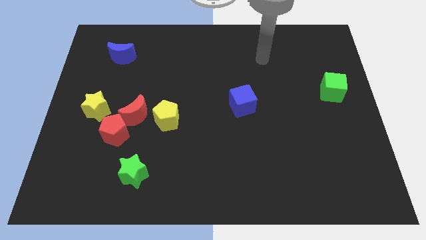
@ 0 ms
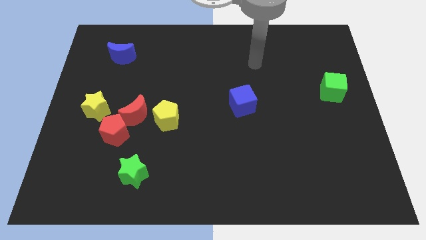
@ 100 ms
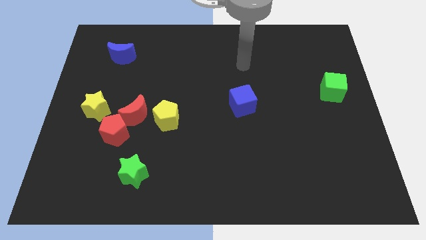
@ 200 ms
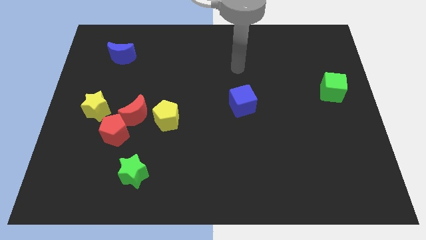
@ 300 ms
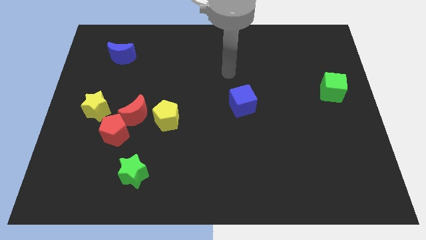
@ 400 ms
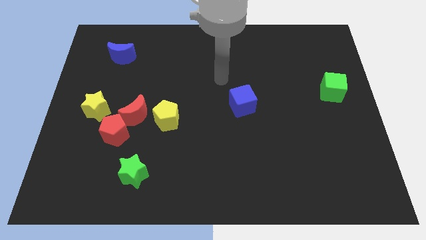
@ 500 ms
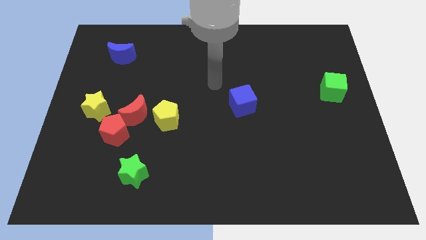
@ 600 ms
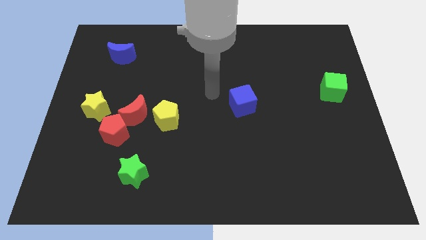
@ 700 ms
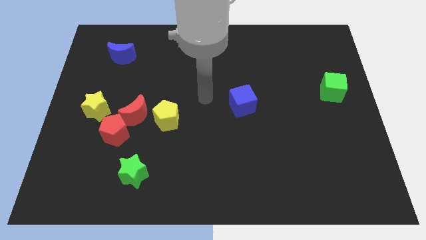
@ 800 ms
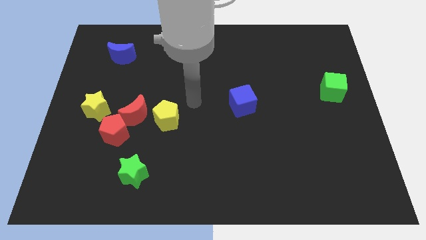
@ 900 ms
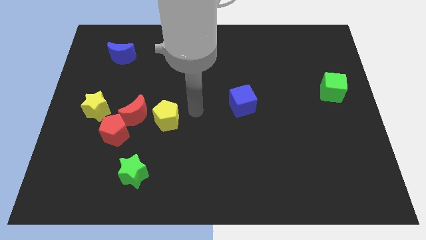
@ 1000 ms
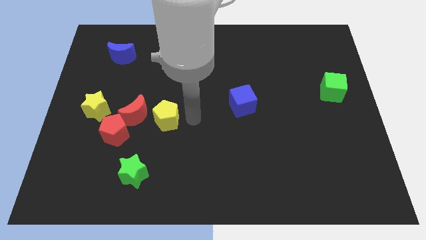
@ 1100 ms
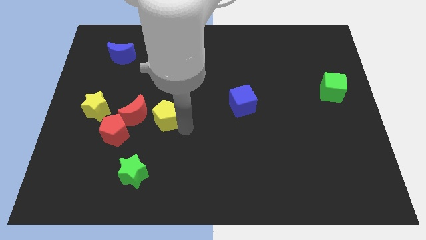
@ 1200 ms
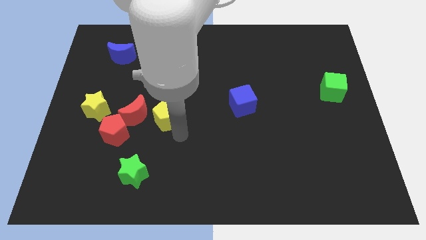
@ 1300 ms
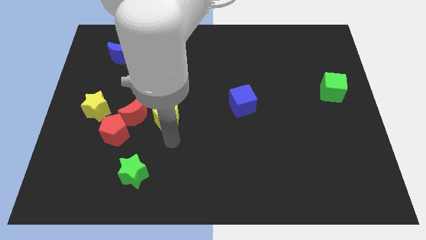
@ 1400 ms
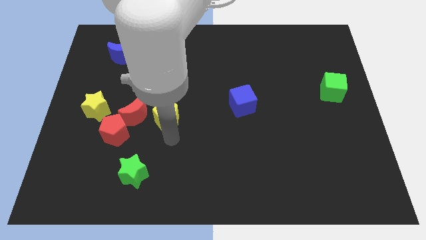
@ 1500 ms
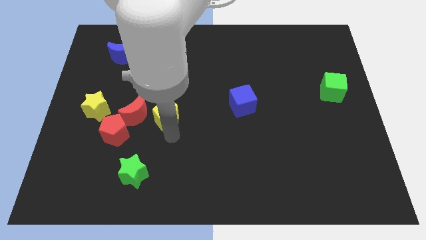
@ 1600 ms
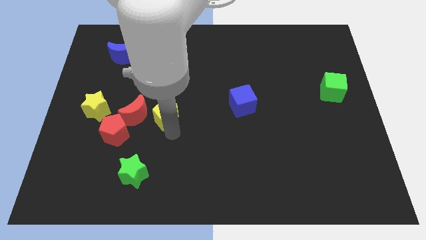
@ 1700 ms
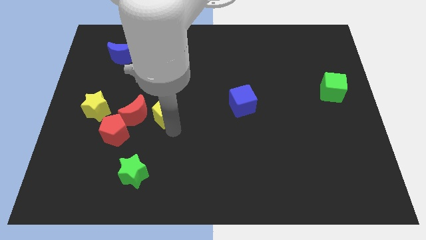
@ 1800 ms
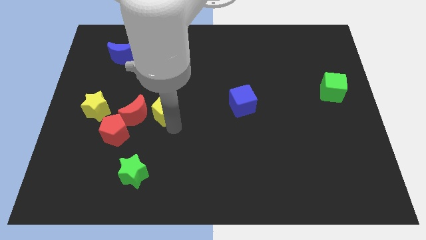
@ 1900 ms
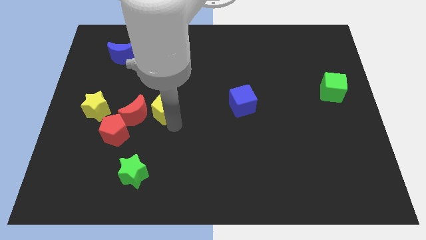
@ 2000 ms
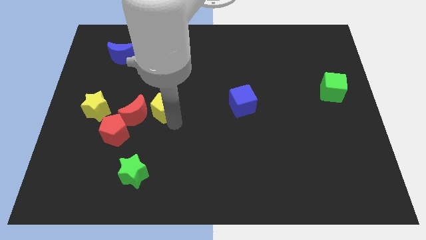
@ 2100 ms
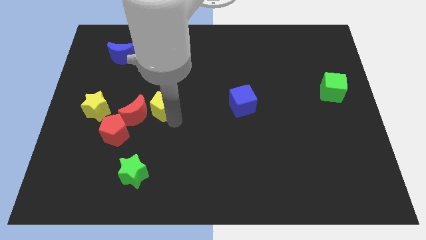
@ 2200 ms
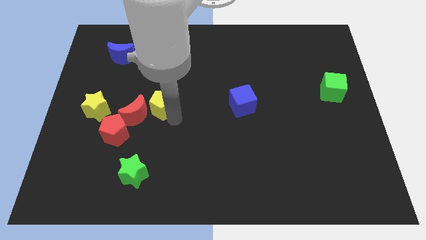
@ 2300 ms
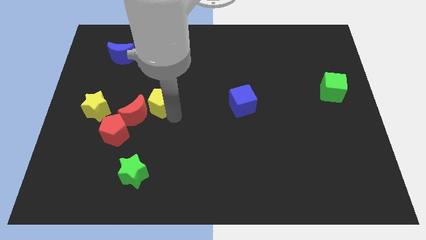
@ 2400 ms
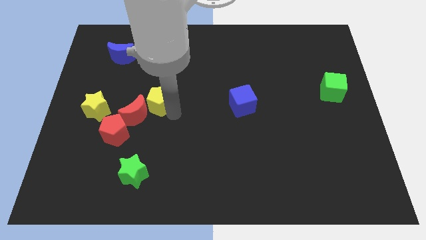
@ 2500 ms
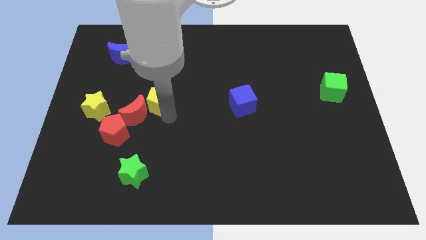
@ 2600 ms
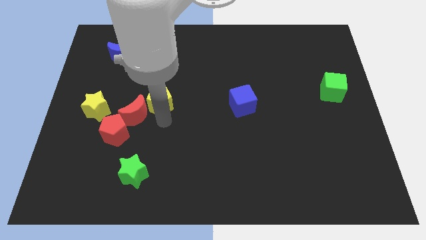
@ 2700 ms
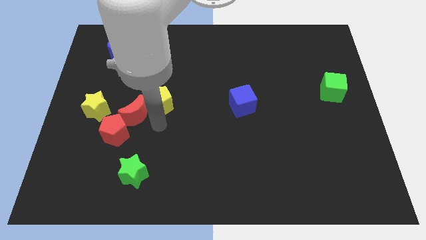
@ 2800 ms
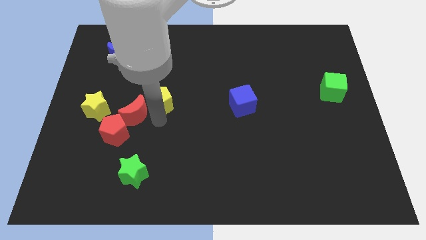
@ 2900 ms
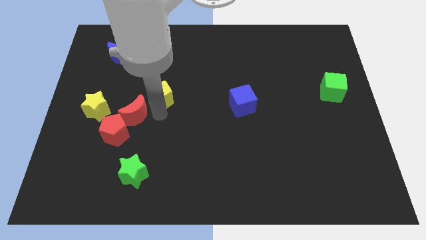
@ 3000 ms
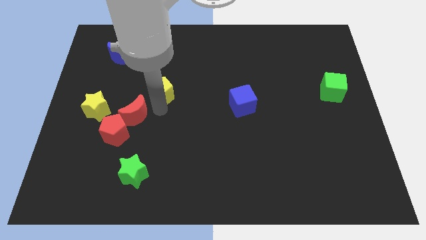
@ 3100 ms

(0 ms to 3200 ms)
push the yellow pentagon a little bit upwards

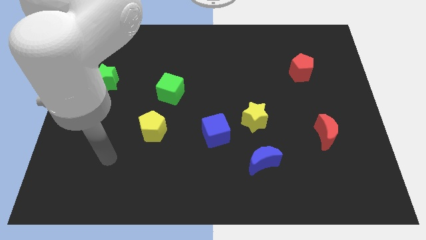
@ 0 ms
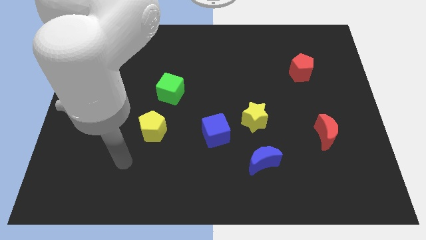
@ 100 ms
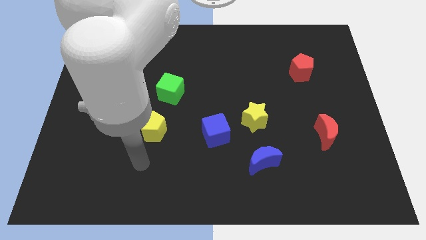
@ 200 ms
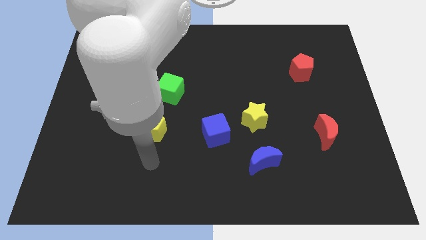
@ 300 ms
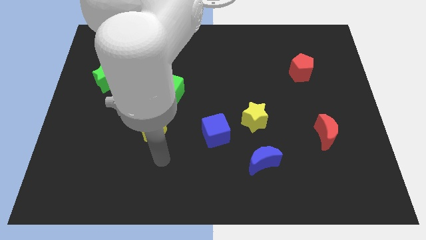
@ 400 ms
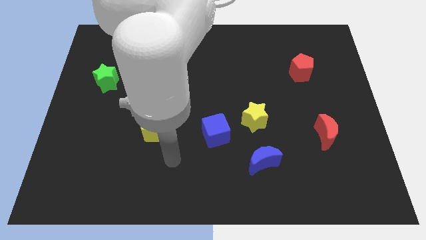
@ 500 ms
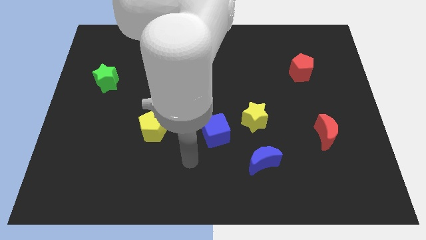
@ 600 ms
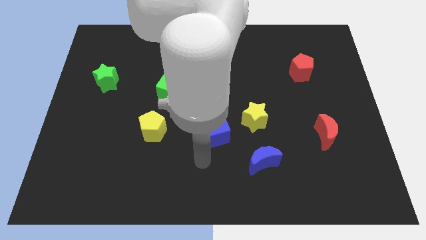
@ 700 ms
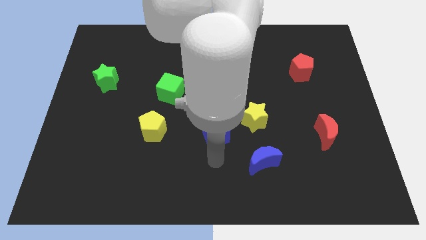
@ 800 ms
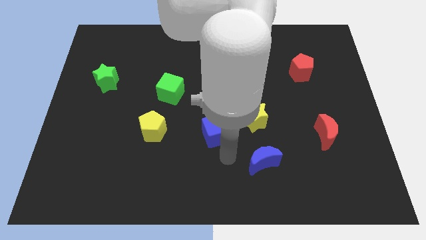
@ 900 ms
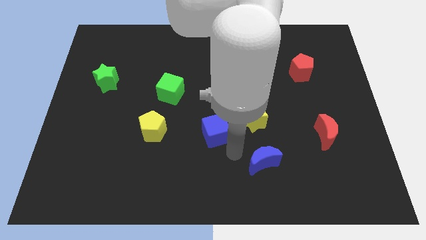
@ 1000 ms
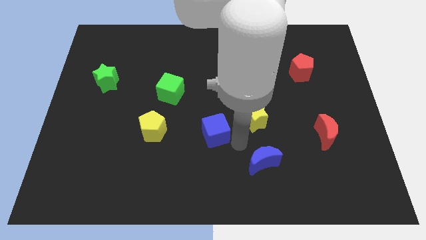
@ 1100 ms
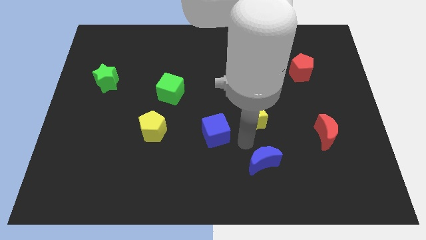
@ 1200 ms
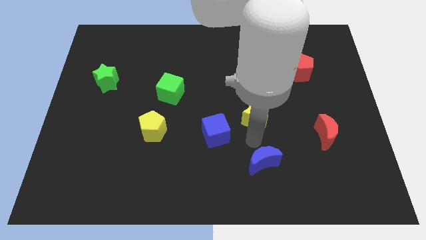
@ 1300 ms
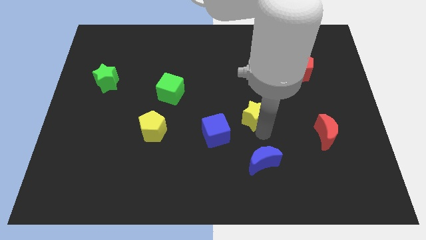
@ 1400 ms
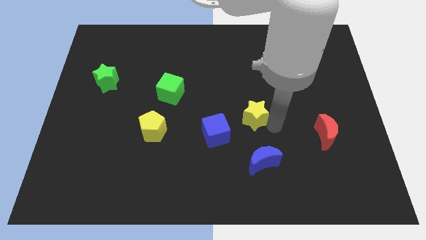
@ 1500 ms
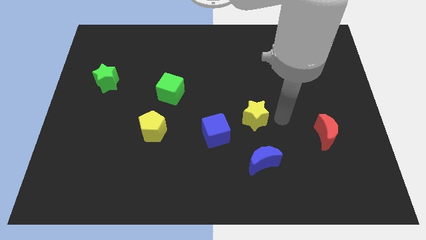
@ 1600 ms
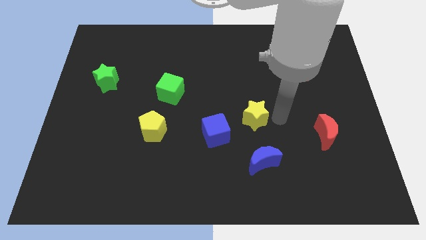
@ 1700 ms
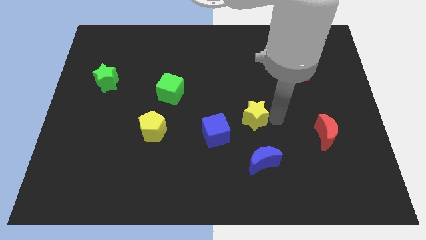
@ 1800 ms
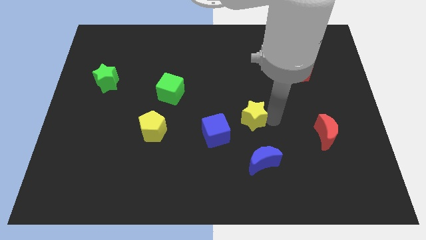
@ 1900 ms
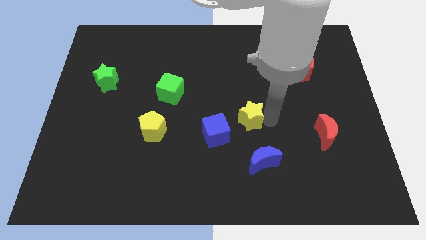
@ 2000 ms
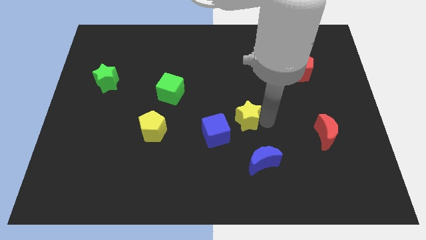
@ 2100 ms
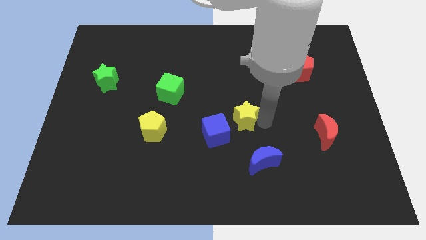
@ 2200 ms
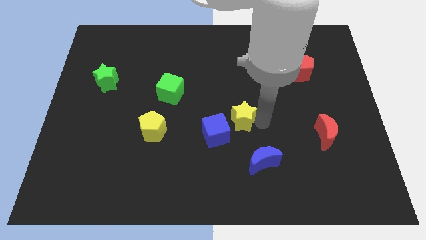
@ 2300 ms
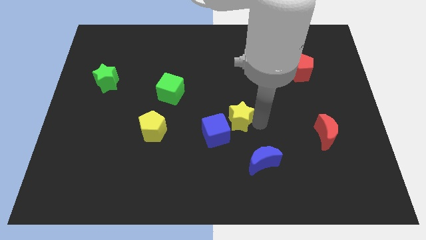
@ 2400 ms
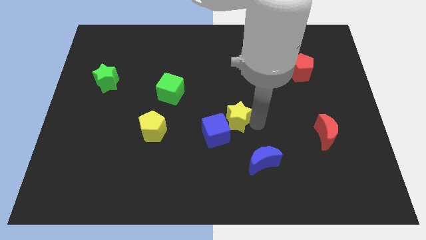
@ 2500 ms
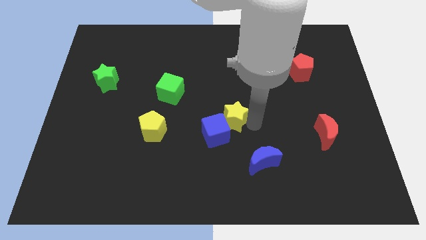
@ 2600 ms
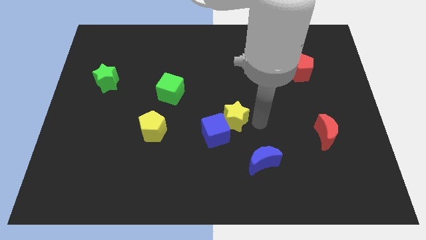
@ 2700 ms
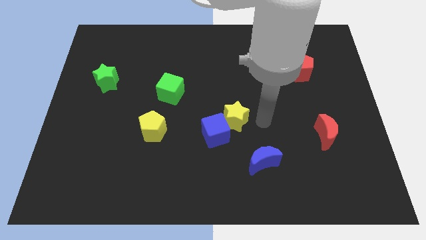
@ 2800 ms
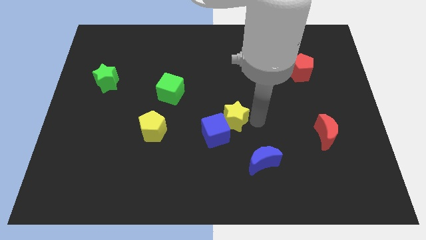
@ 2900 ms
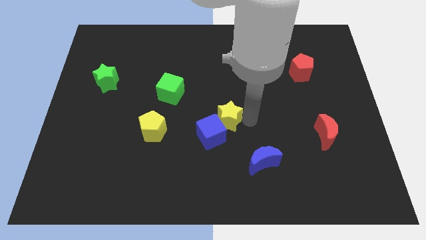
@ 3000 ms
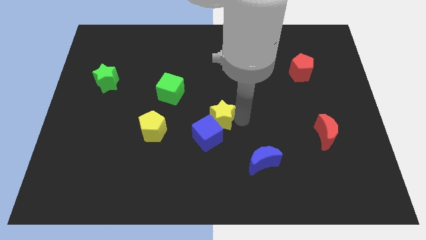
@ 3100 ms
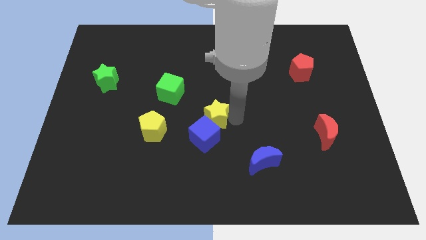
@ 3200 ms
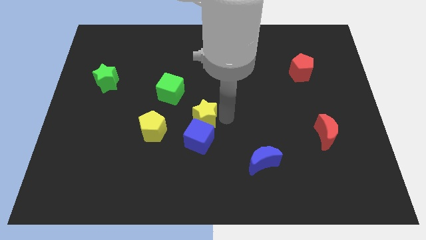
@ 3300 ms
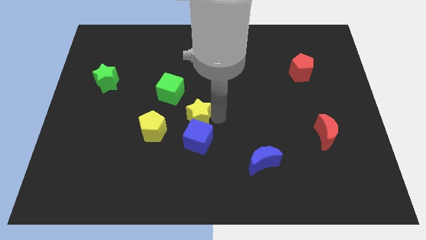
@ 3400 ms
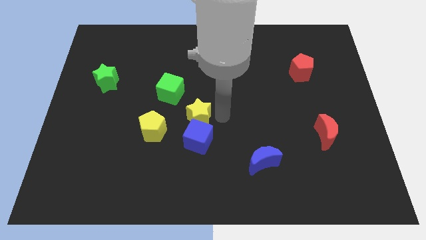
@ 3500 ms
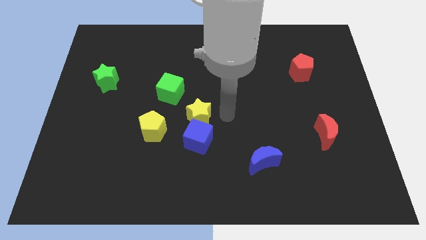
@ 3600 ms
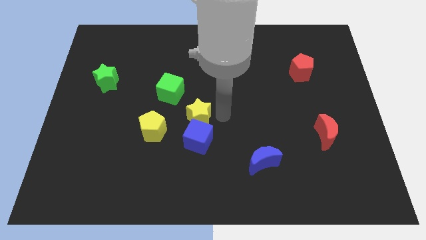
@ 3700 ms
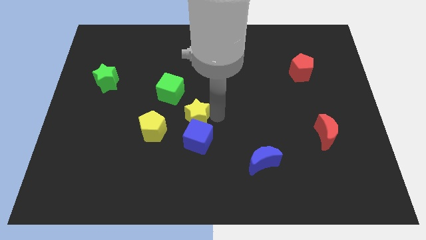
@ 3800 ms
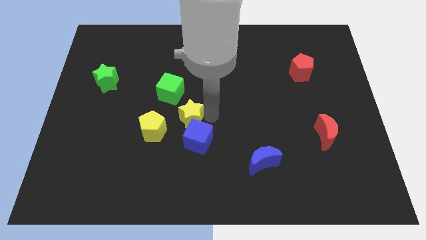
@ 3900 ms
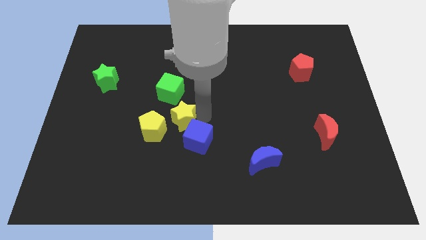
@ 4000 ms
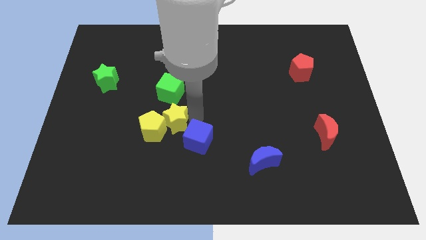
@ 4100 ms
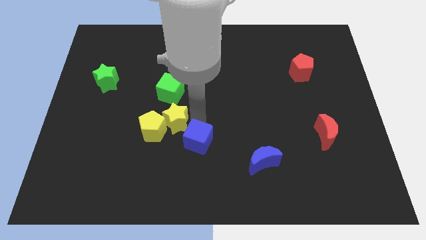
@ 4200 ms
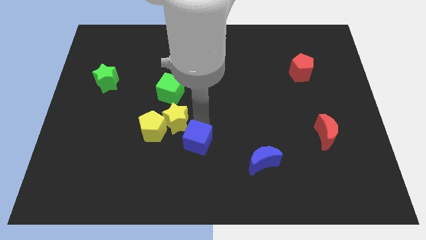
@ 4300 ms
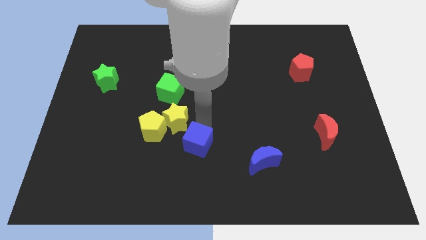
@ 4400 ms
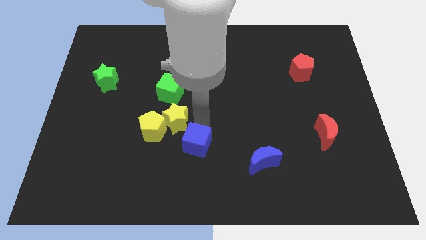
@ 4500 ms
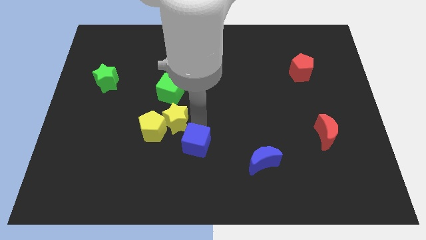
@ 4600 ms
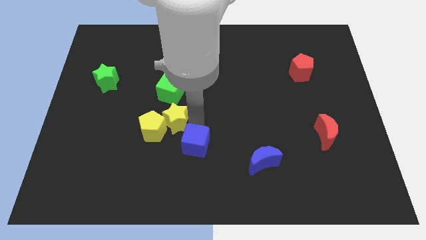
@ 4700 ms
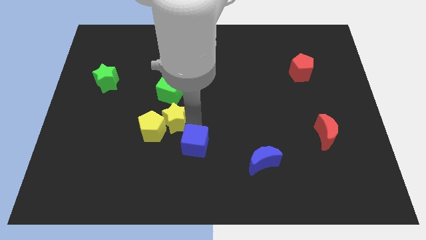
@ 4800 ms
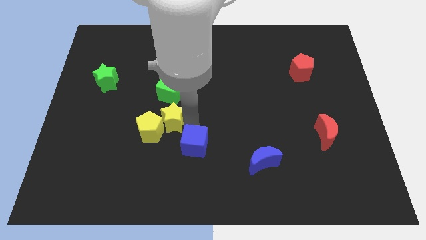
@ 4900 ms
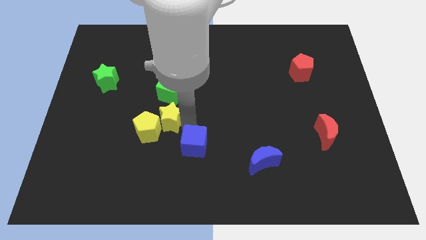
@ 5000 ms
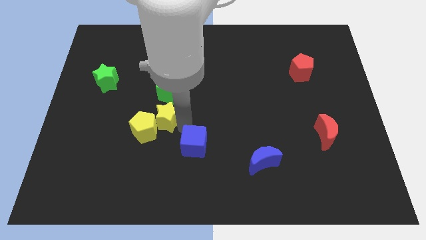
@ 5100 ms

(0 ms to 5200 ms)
slide the yellow star to the left
